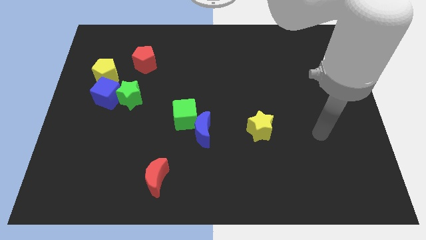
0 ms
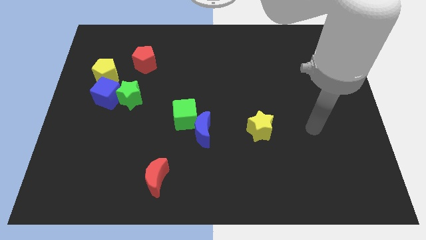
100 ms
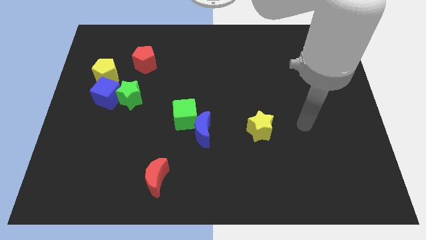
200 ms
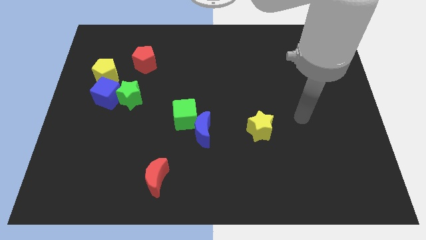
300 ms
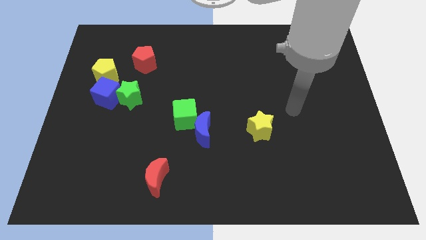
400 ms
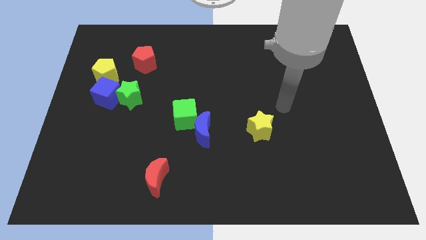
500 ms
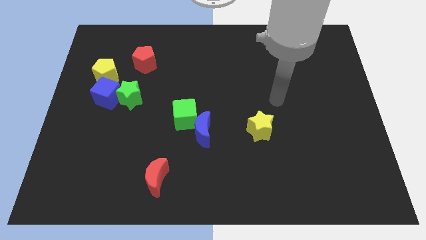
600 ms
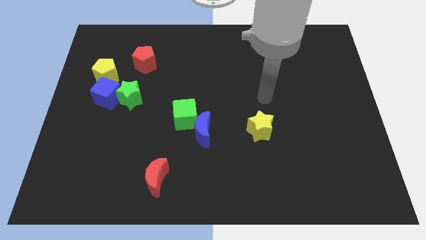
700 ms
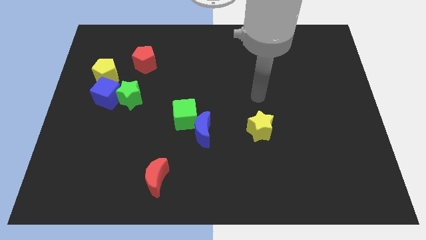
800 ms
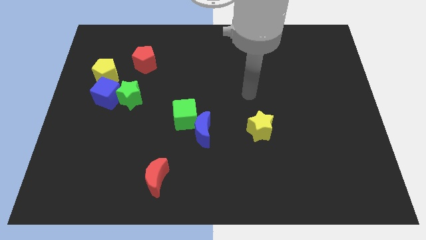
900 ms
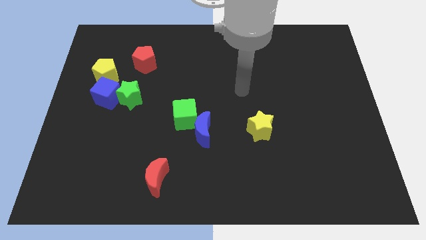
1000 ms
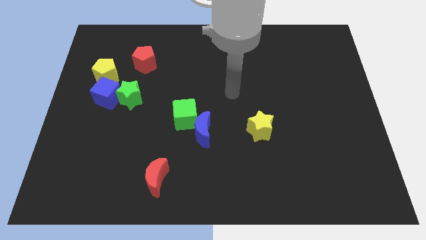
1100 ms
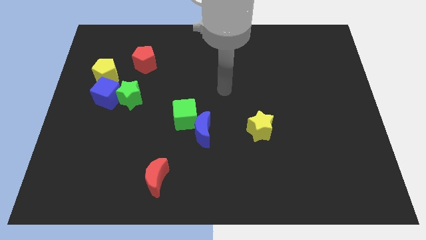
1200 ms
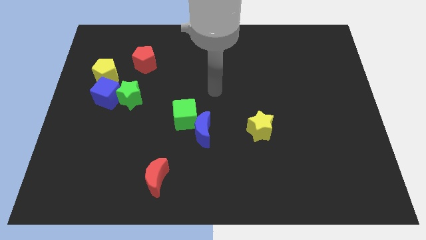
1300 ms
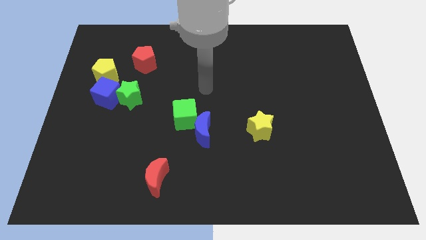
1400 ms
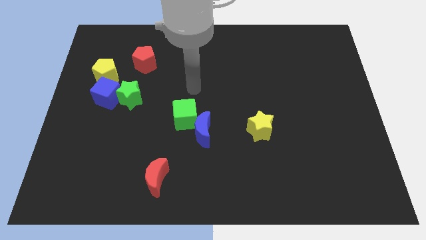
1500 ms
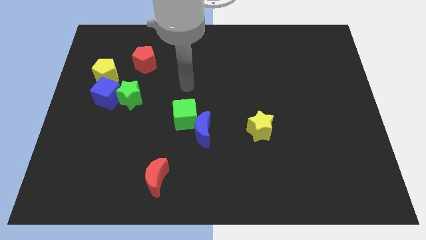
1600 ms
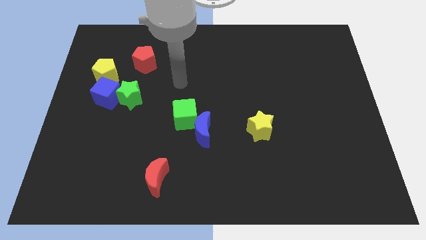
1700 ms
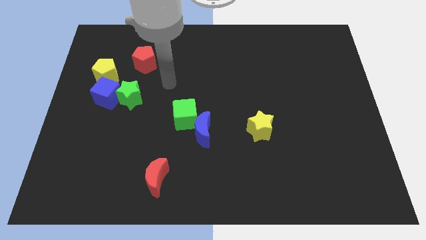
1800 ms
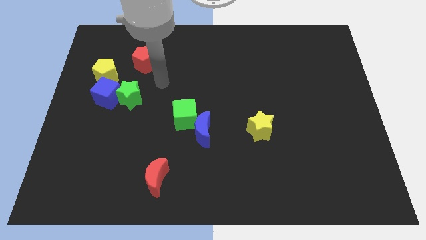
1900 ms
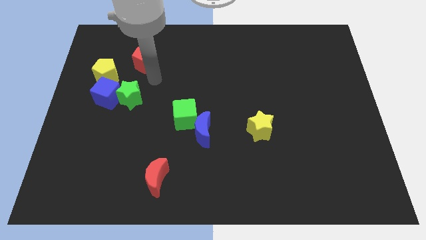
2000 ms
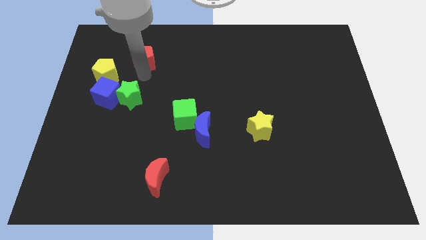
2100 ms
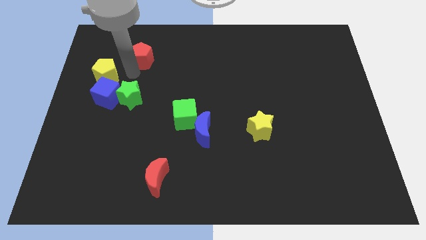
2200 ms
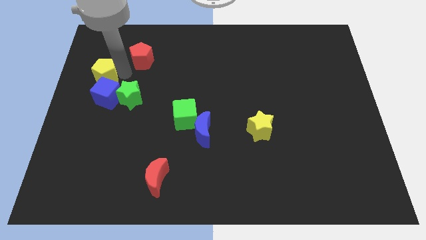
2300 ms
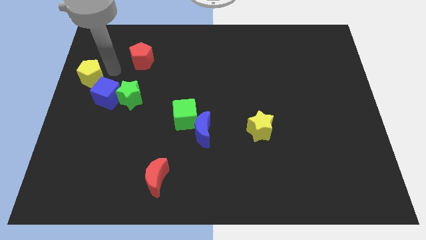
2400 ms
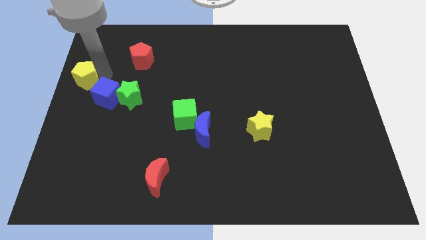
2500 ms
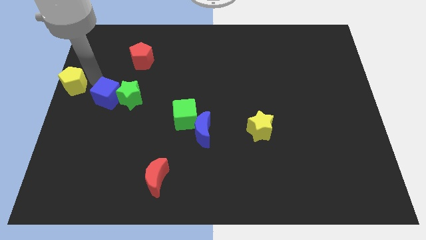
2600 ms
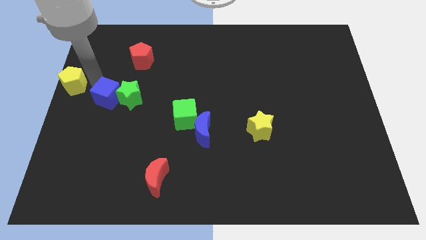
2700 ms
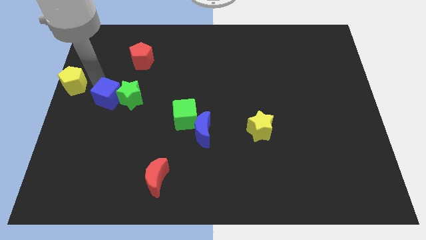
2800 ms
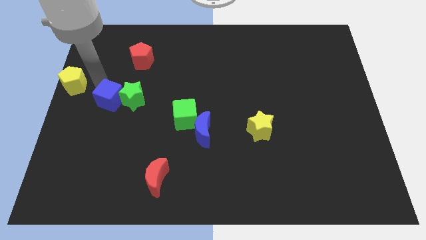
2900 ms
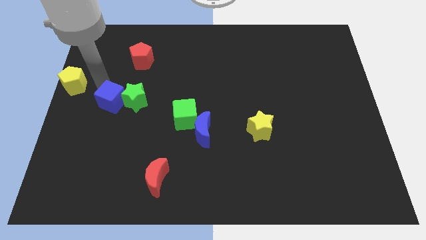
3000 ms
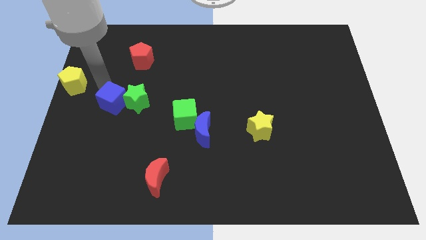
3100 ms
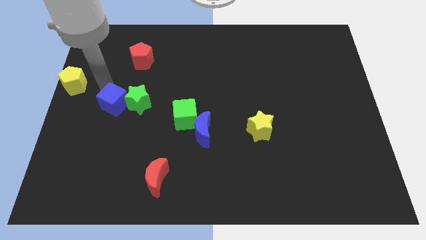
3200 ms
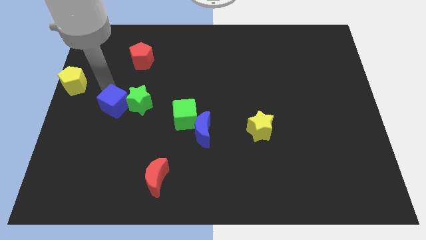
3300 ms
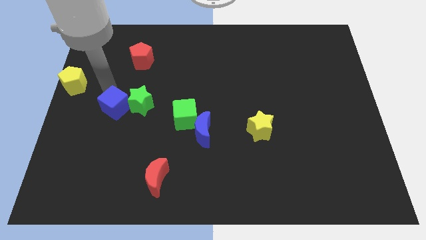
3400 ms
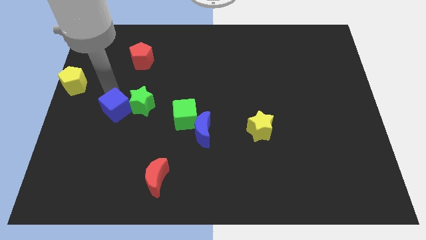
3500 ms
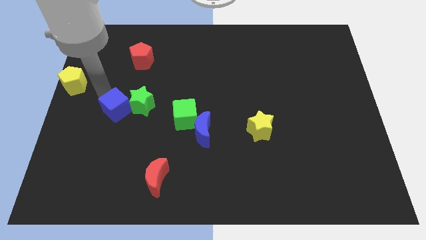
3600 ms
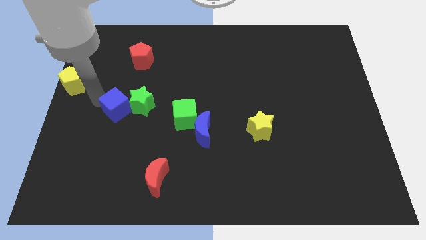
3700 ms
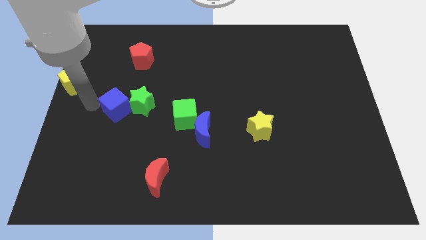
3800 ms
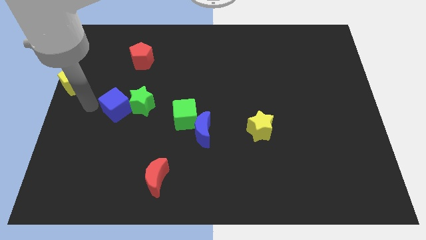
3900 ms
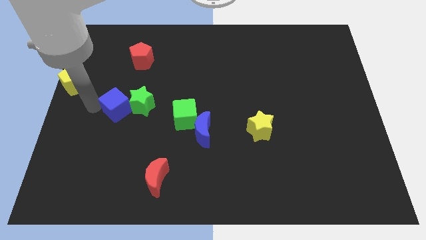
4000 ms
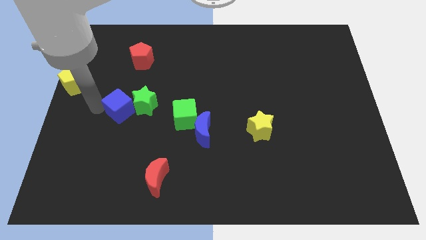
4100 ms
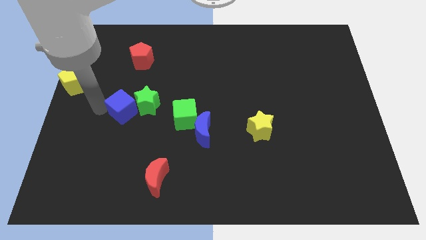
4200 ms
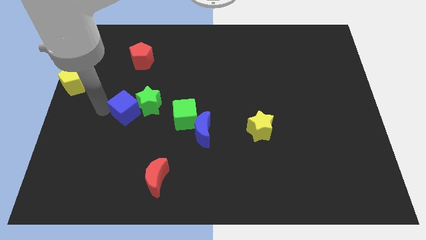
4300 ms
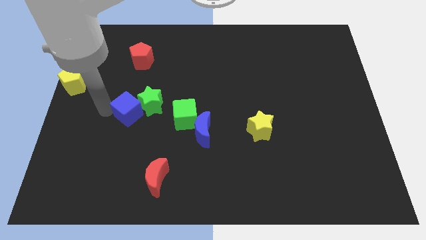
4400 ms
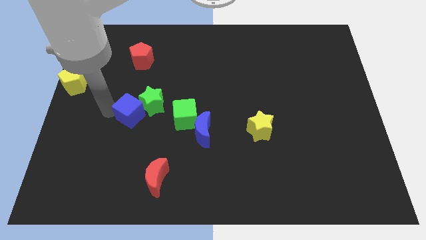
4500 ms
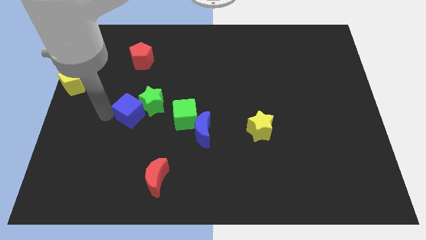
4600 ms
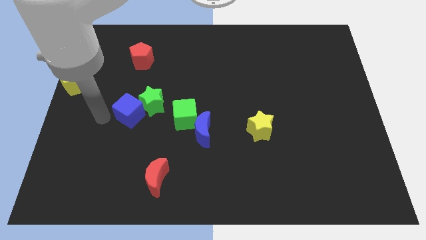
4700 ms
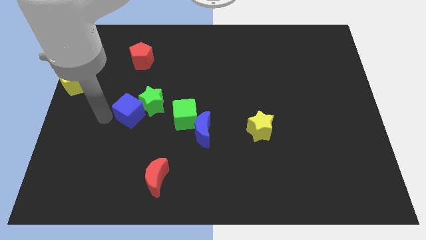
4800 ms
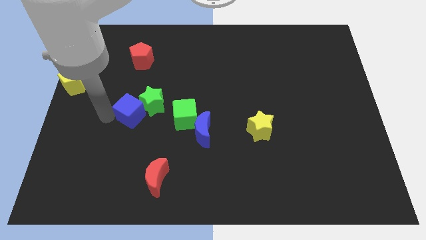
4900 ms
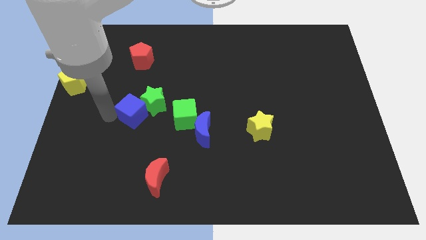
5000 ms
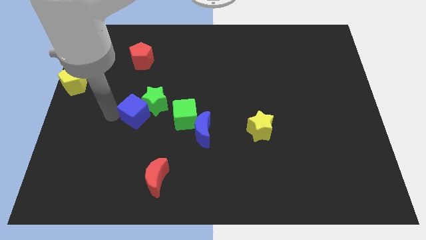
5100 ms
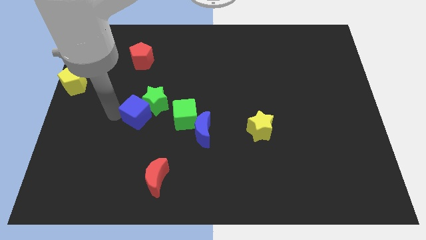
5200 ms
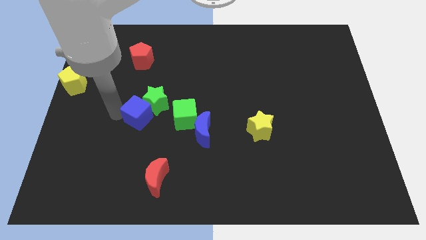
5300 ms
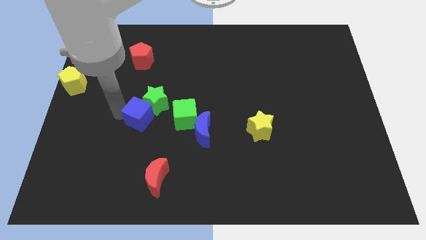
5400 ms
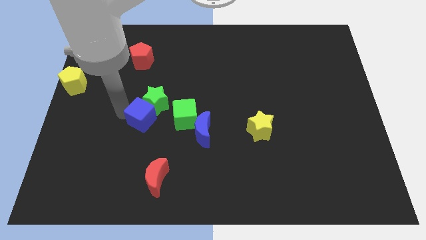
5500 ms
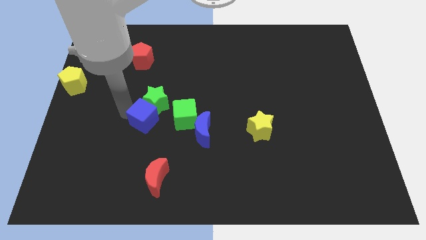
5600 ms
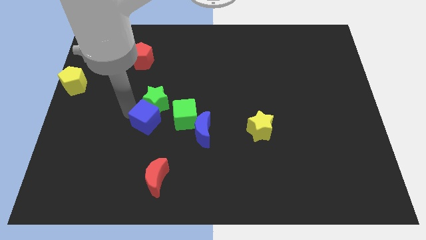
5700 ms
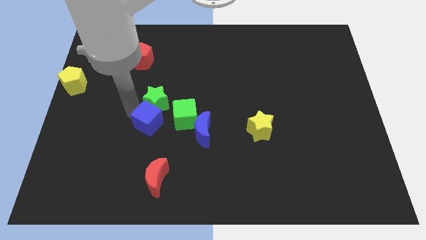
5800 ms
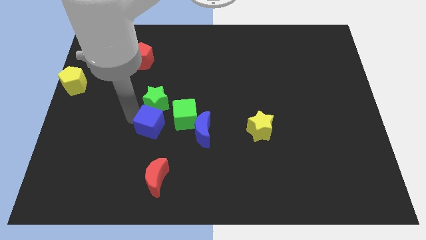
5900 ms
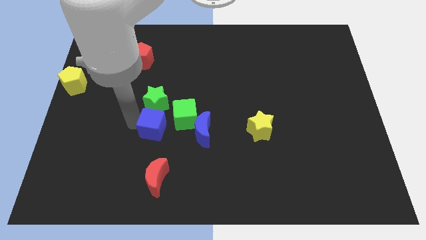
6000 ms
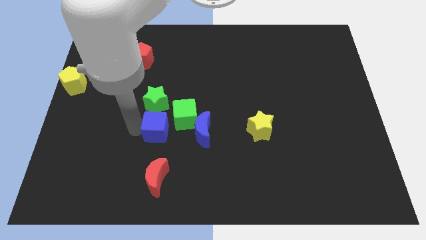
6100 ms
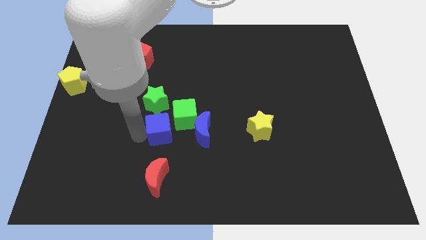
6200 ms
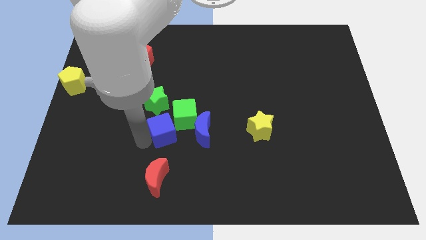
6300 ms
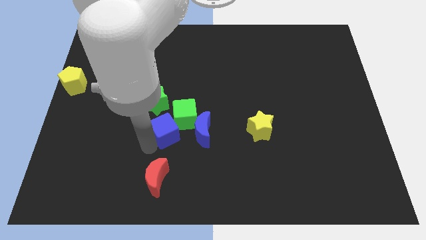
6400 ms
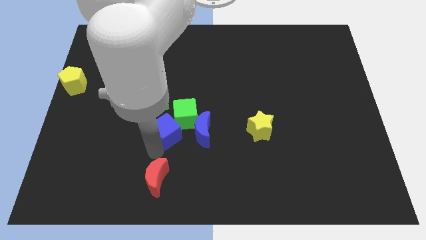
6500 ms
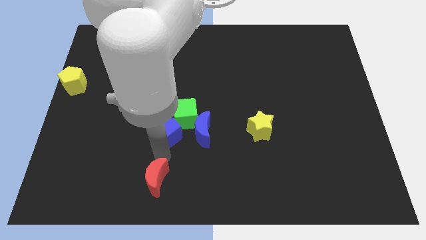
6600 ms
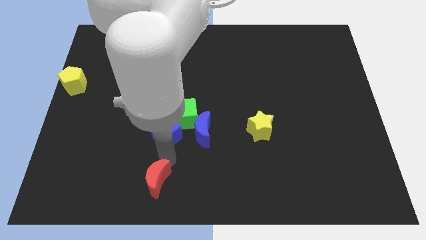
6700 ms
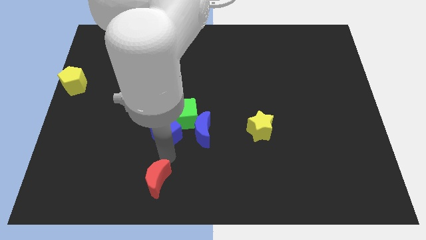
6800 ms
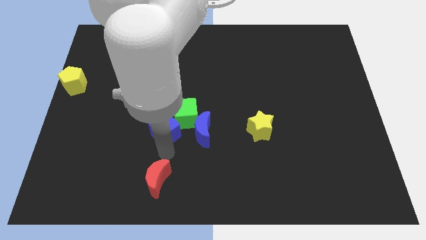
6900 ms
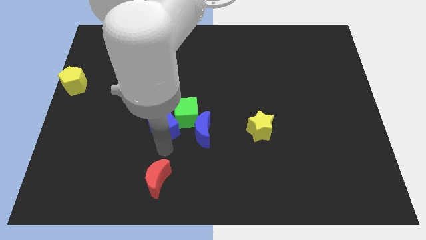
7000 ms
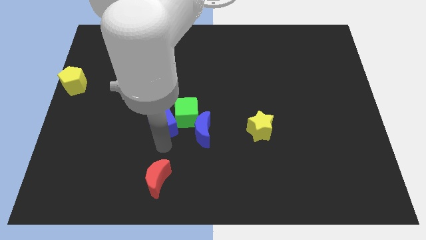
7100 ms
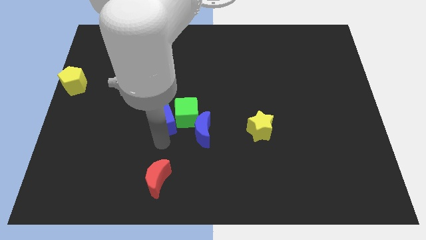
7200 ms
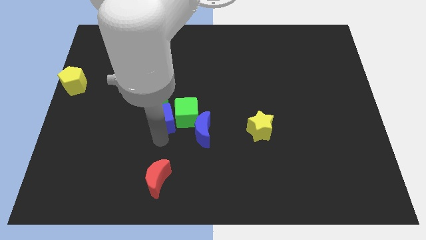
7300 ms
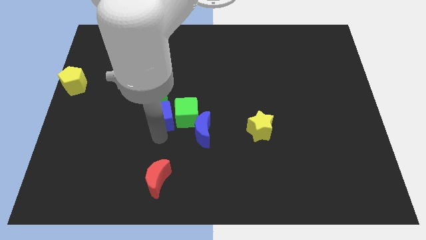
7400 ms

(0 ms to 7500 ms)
slide the blue cube to the top left of the green cube
